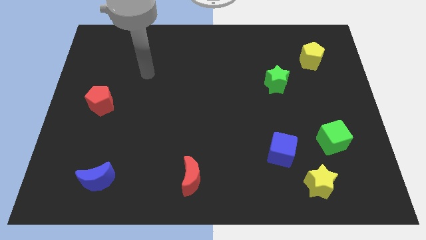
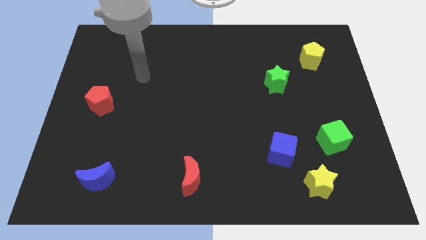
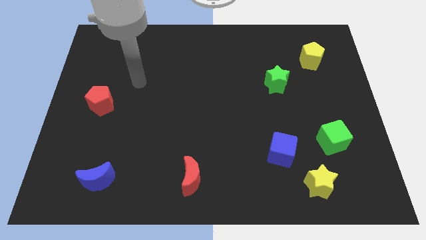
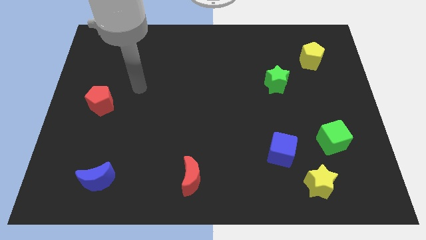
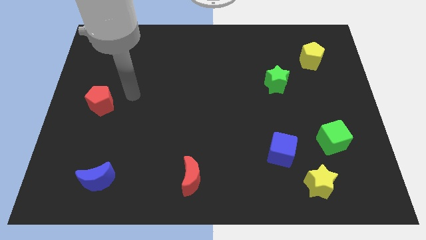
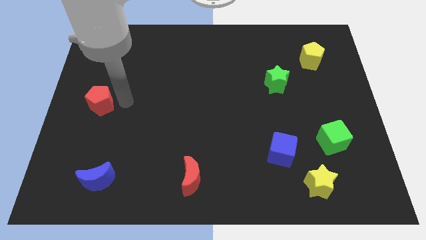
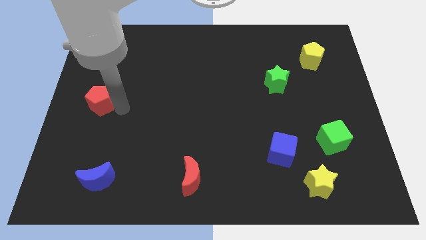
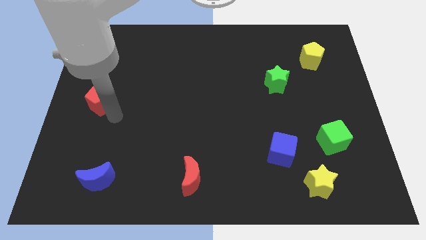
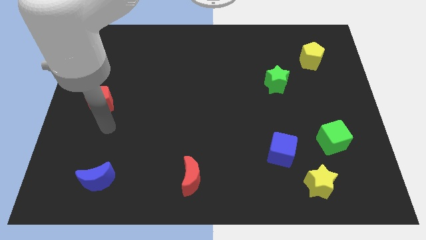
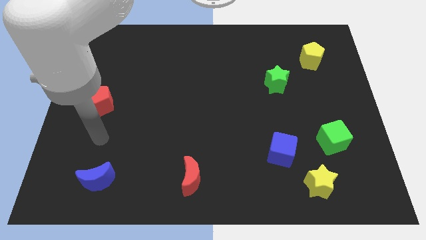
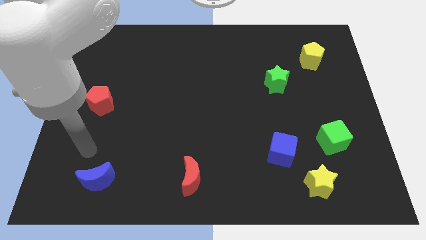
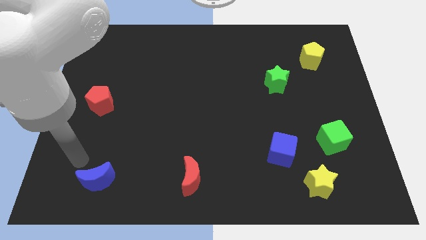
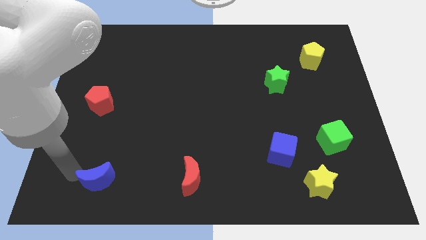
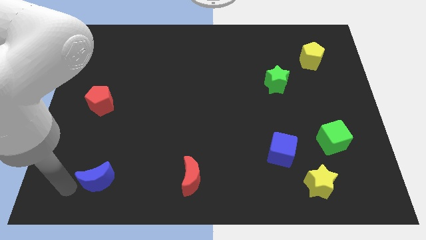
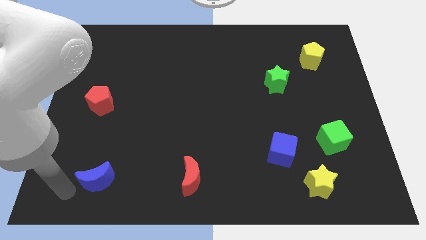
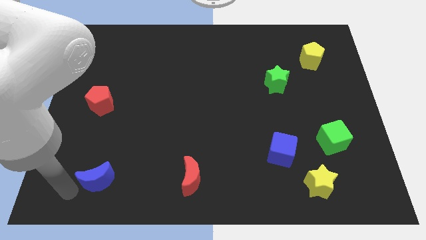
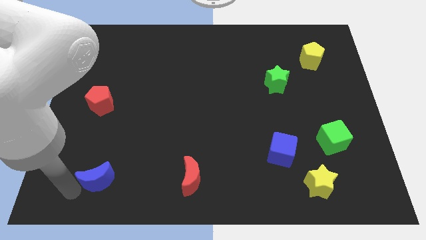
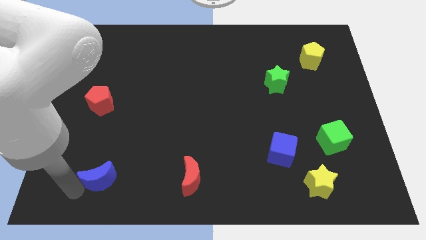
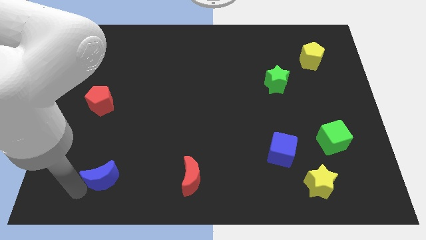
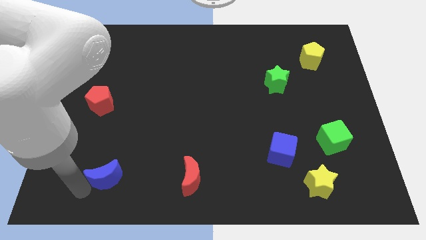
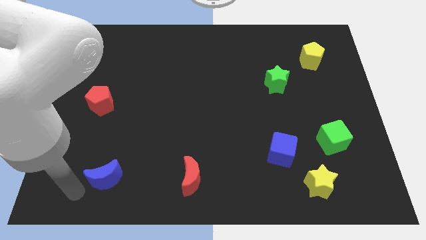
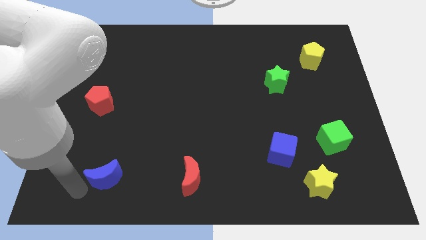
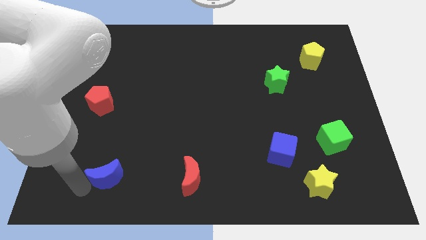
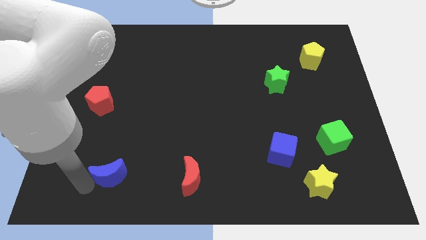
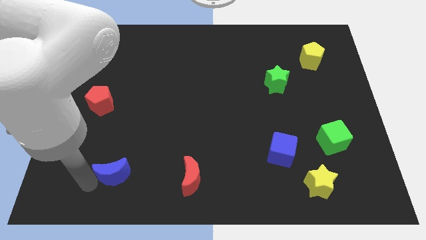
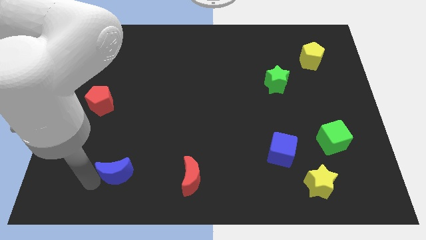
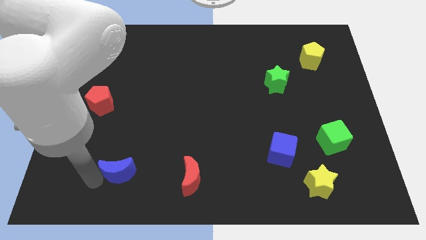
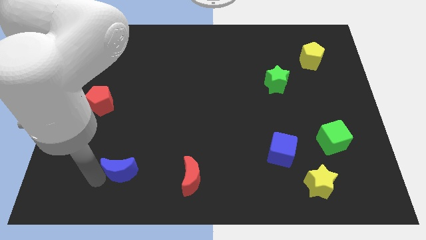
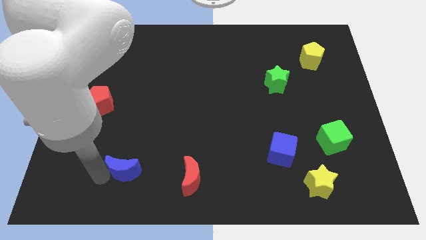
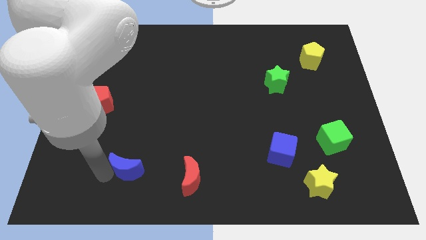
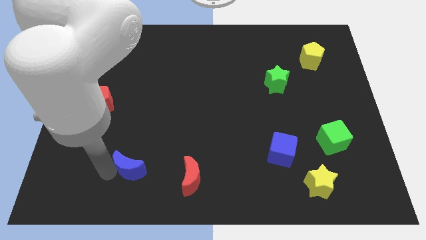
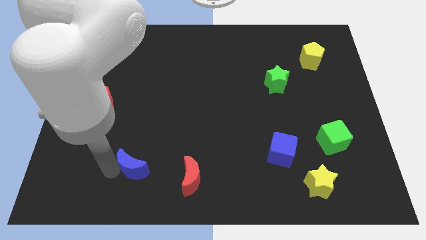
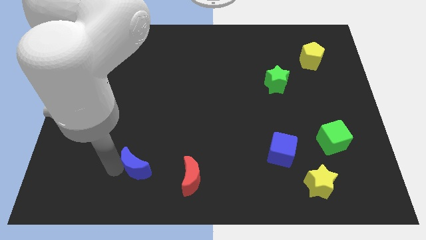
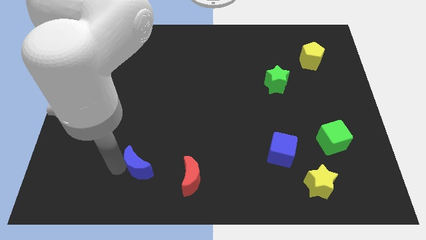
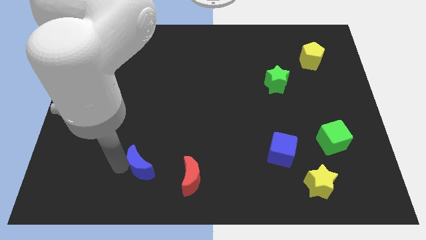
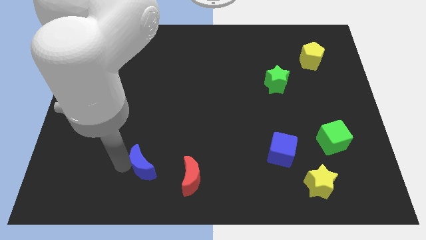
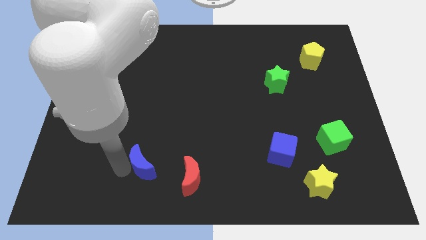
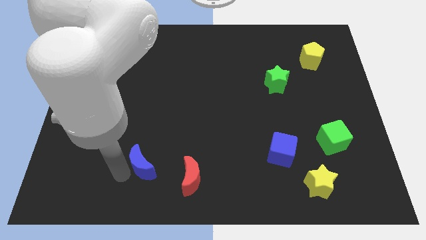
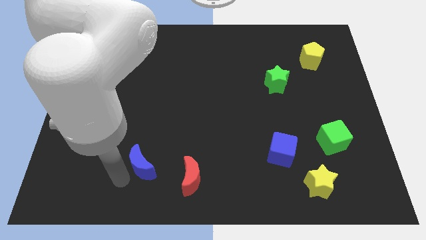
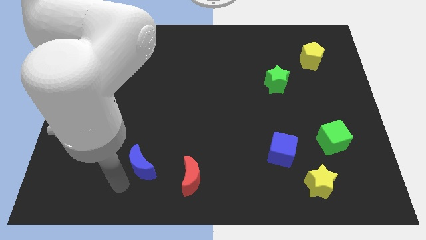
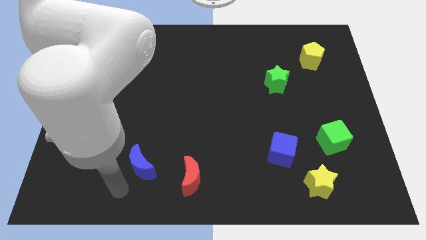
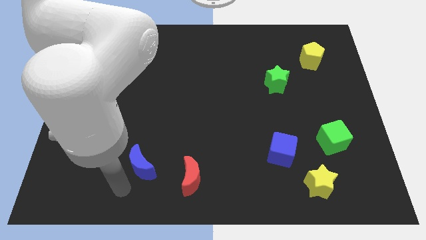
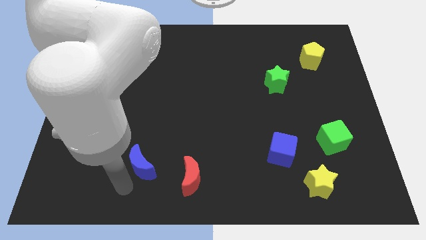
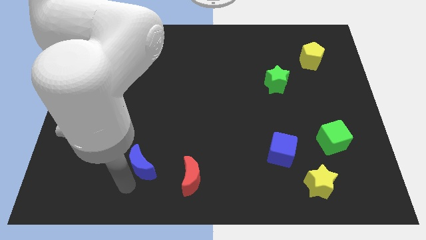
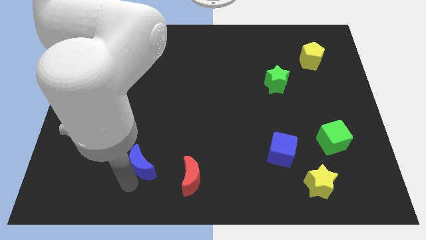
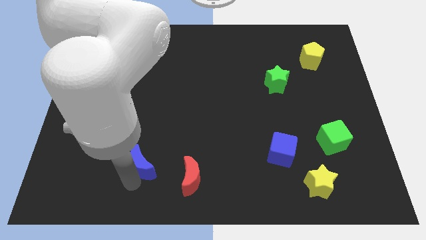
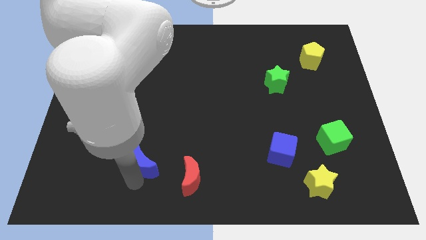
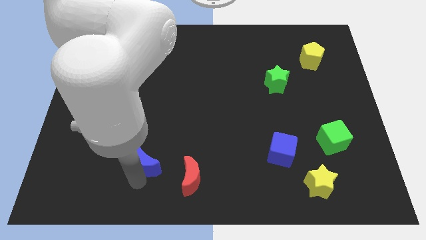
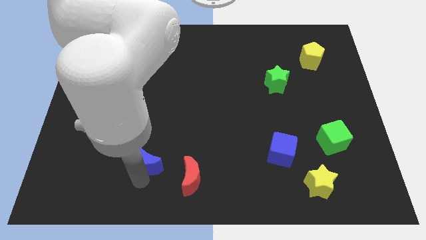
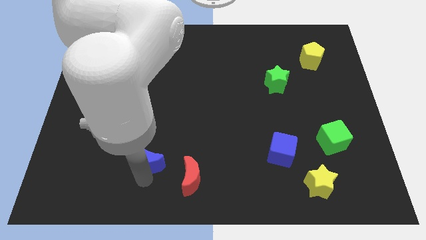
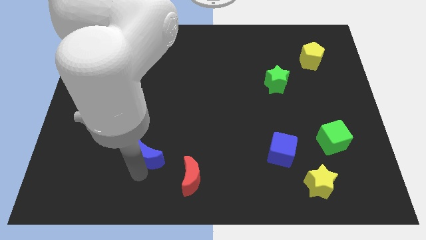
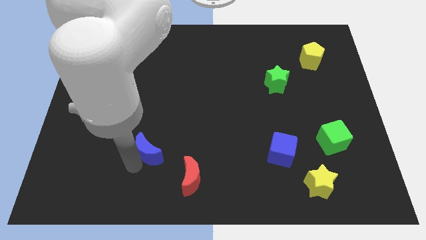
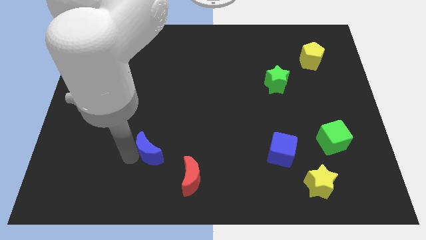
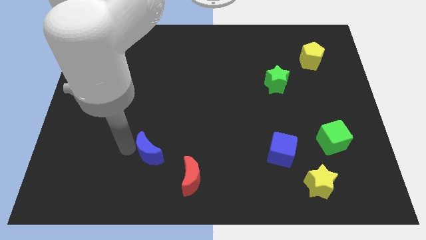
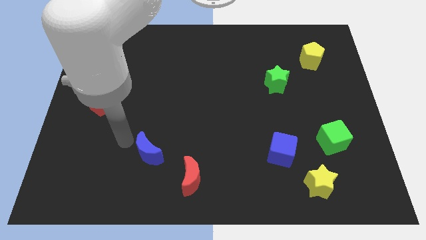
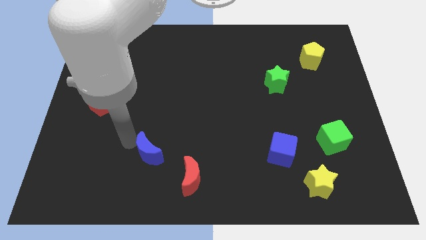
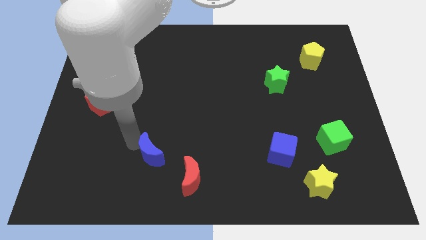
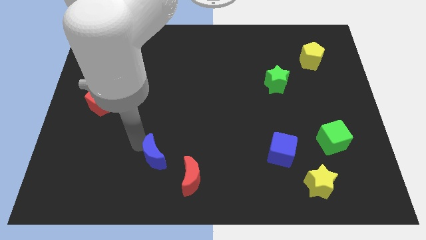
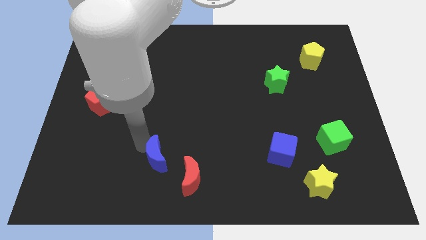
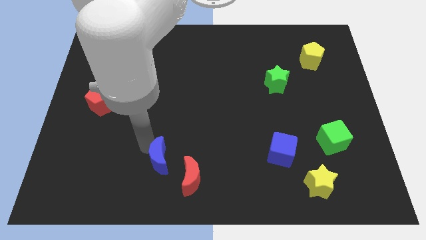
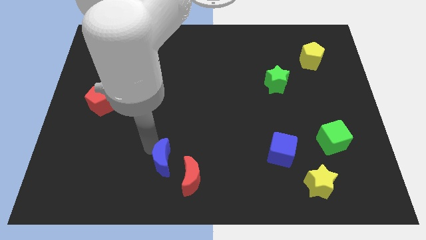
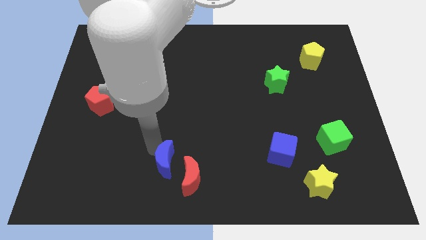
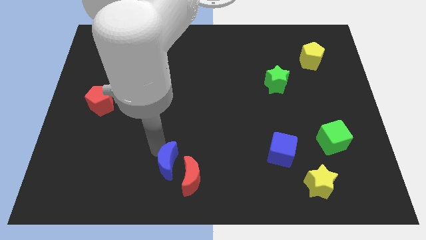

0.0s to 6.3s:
move the blue moon to the red moon
